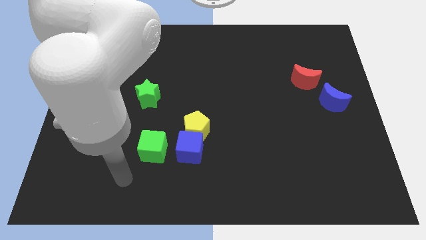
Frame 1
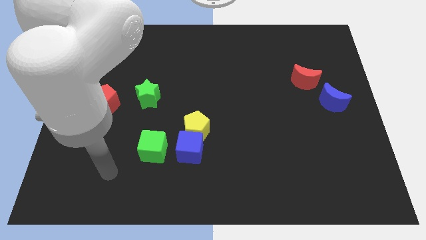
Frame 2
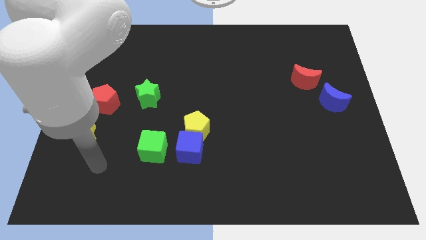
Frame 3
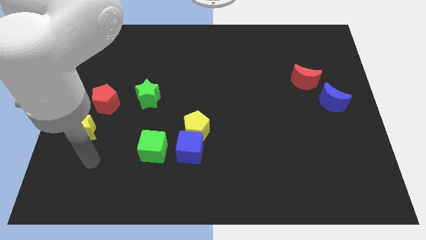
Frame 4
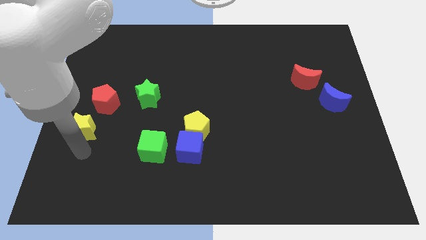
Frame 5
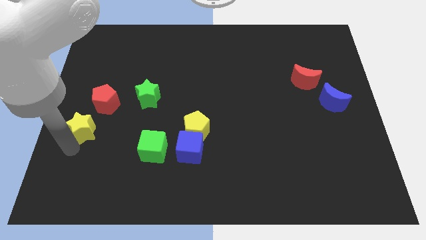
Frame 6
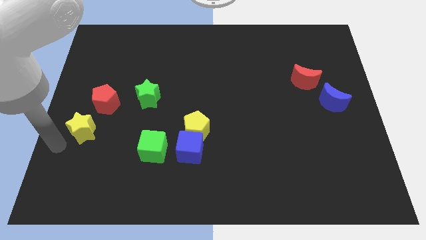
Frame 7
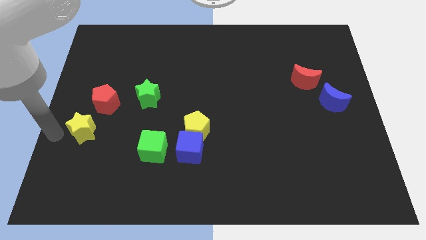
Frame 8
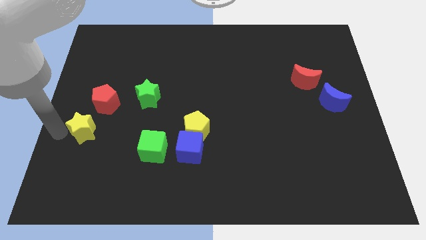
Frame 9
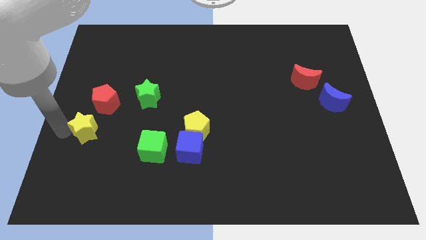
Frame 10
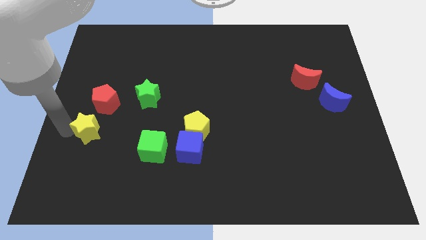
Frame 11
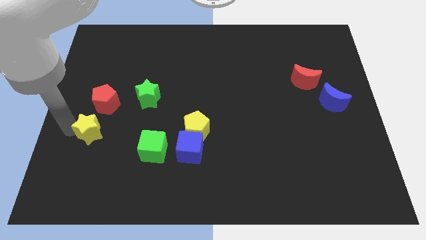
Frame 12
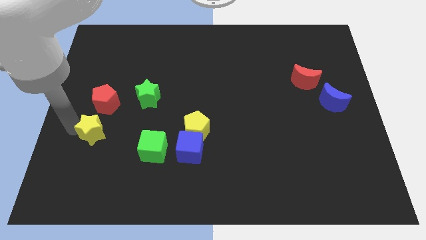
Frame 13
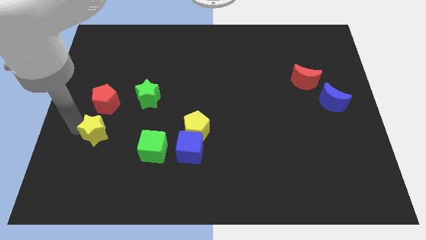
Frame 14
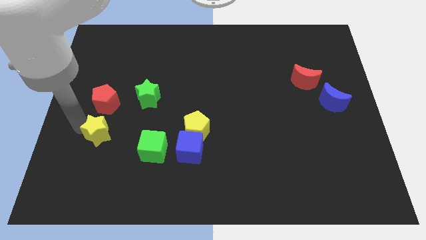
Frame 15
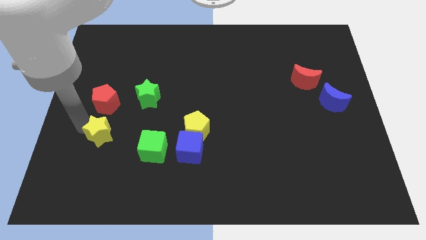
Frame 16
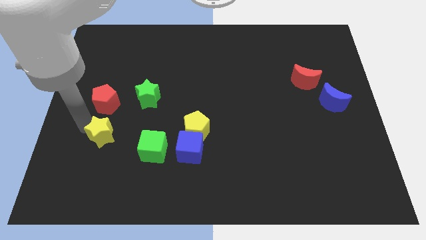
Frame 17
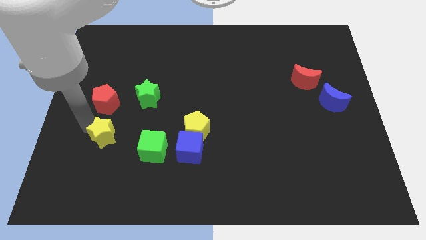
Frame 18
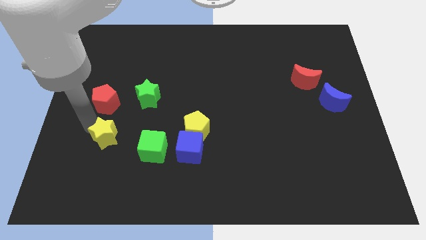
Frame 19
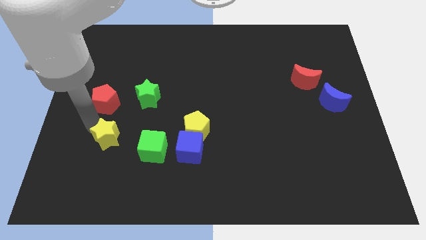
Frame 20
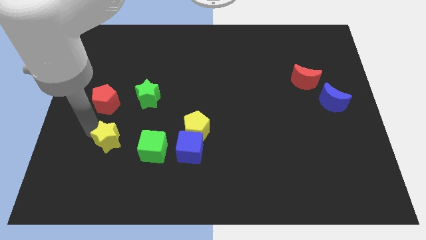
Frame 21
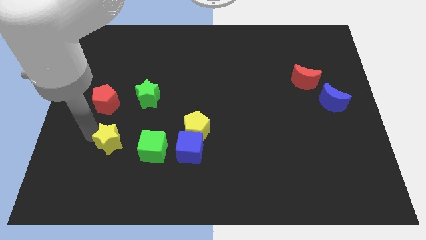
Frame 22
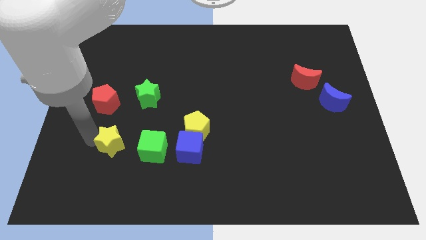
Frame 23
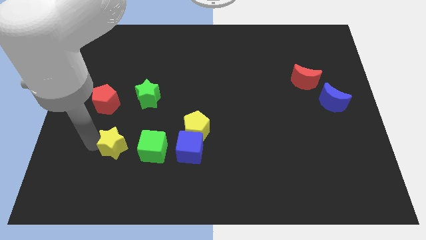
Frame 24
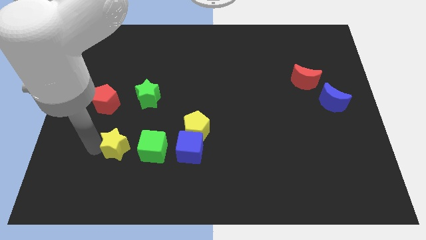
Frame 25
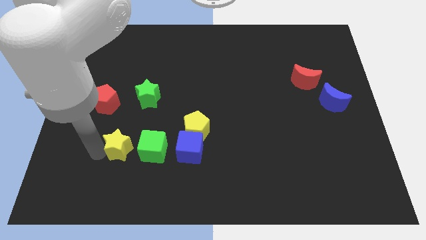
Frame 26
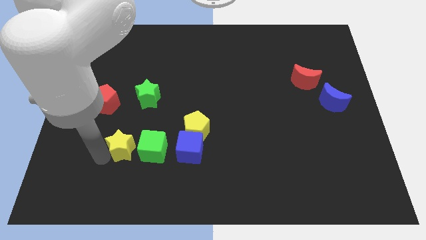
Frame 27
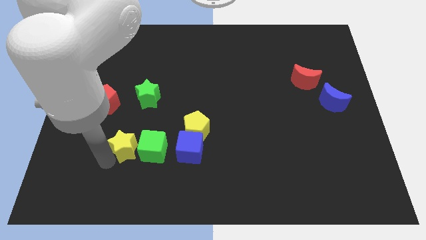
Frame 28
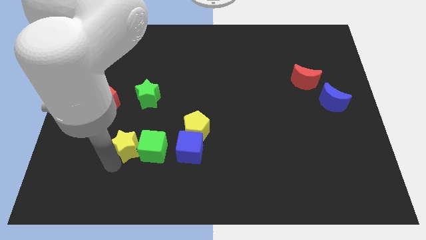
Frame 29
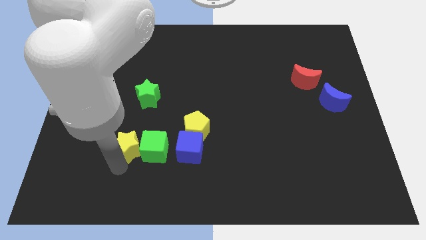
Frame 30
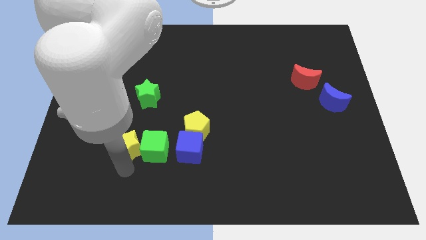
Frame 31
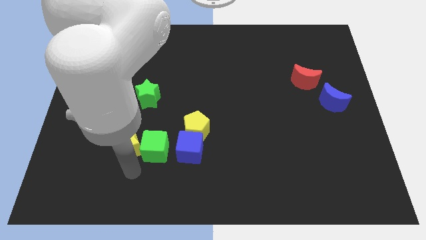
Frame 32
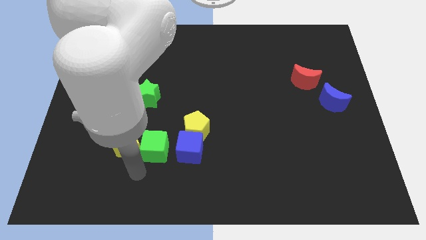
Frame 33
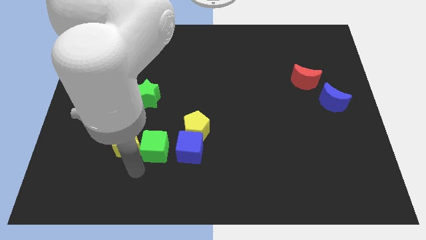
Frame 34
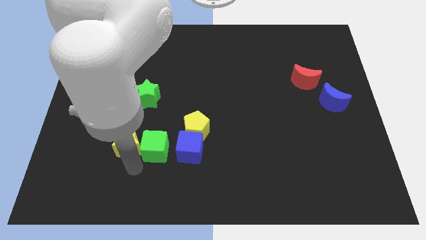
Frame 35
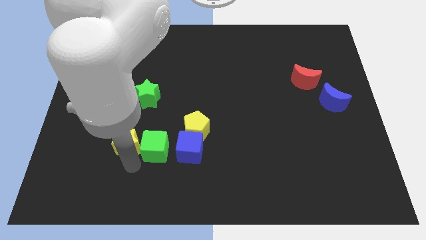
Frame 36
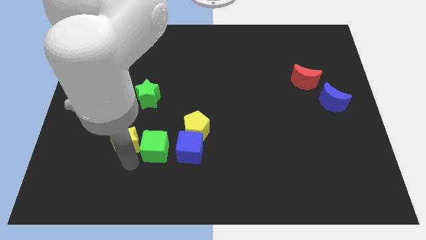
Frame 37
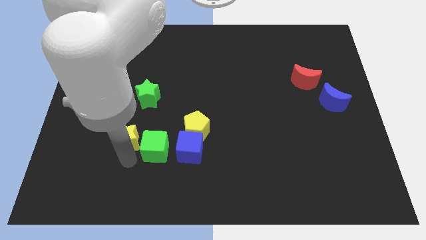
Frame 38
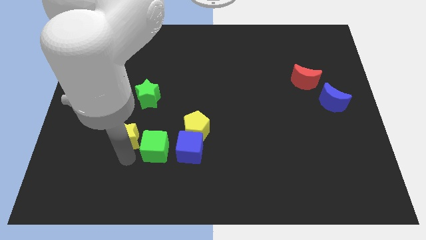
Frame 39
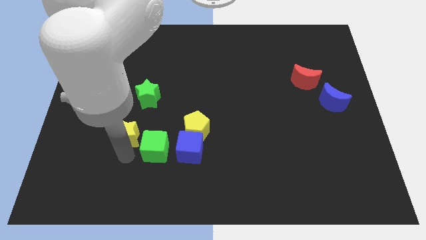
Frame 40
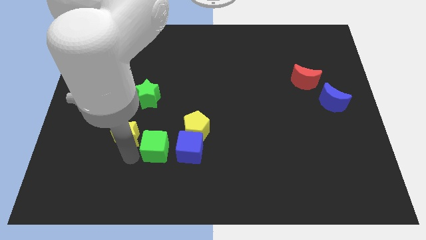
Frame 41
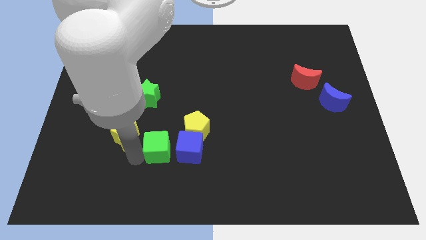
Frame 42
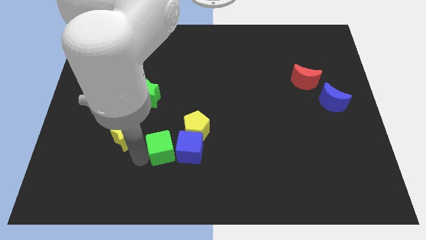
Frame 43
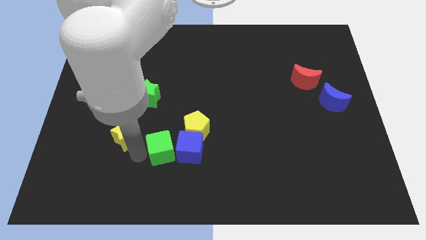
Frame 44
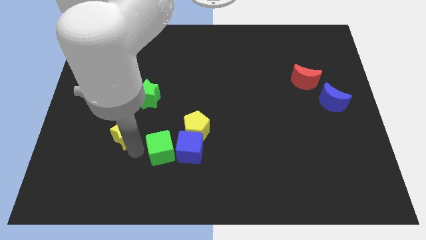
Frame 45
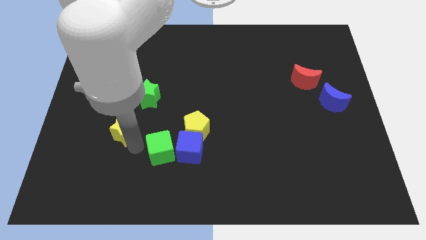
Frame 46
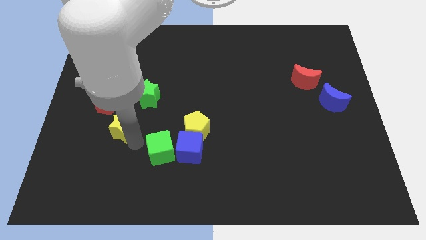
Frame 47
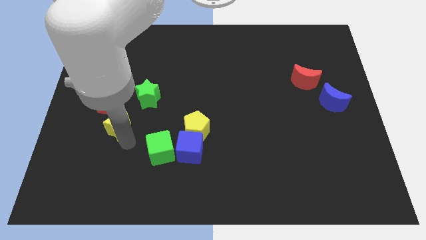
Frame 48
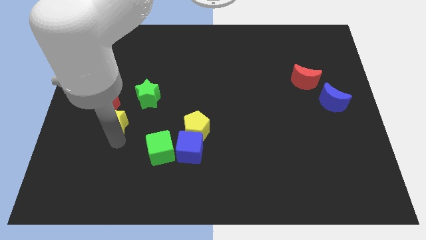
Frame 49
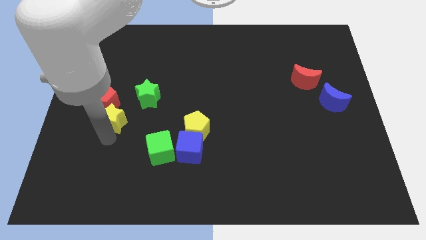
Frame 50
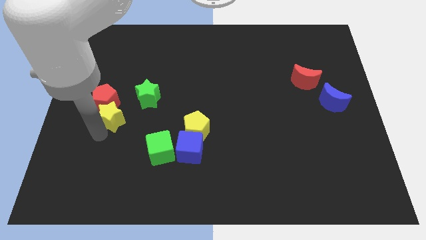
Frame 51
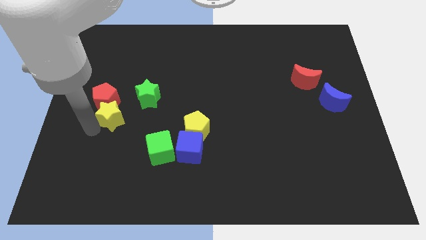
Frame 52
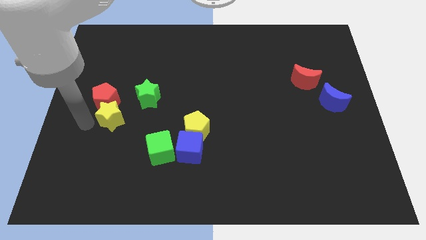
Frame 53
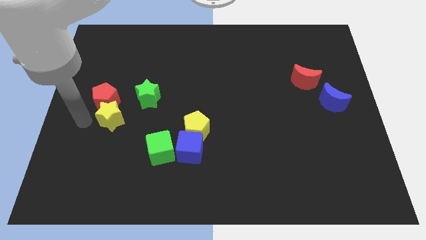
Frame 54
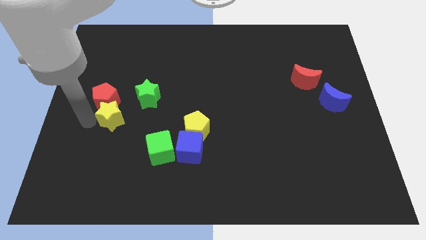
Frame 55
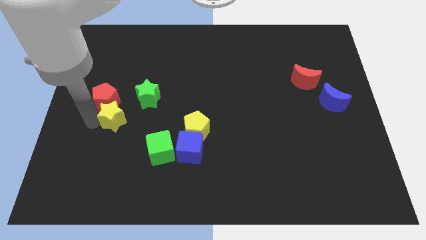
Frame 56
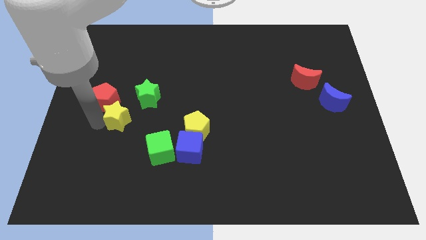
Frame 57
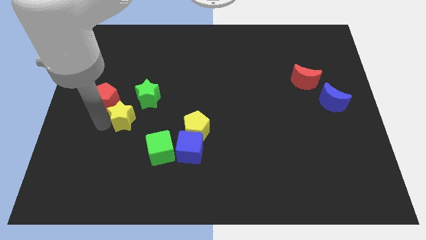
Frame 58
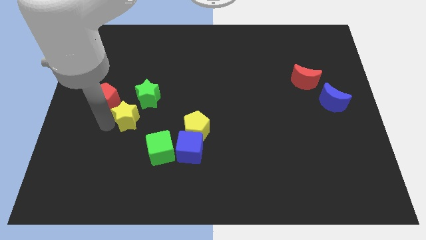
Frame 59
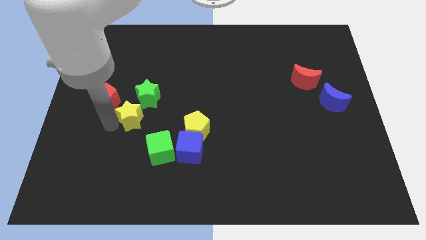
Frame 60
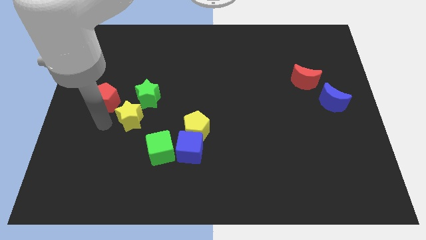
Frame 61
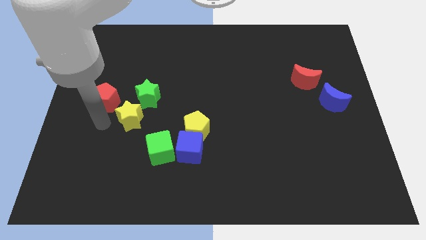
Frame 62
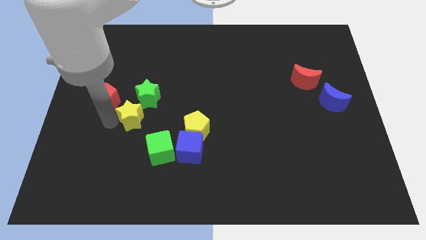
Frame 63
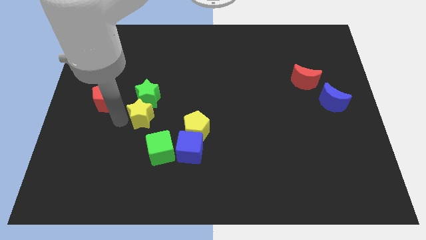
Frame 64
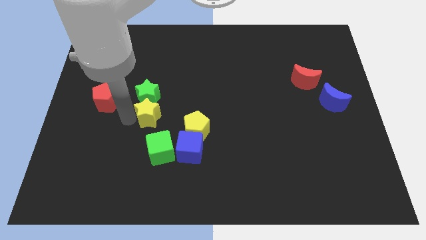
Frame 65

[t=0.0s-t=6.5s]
slide the yellow star to the top side of the green cube
